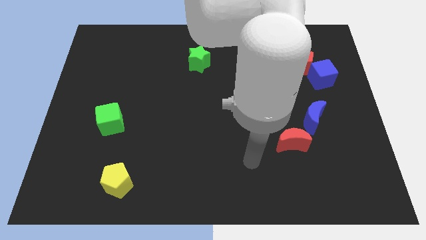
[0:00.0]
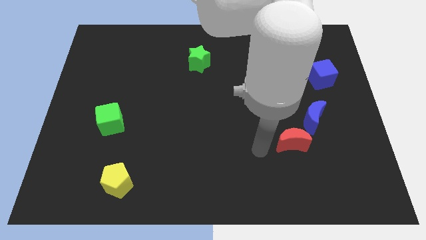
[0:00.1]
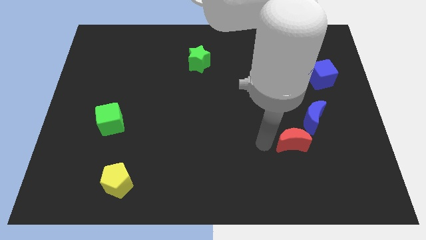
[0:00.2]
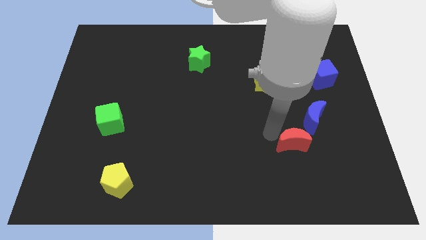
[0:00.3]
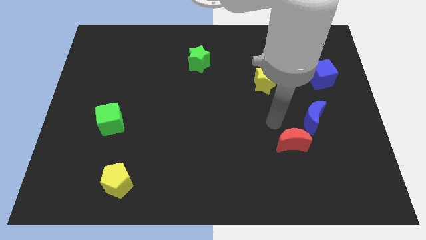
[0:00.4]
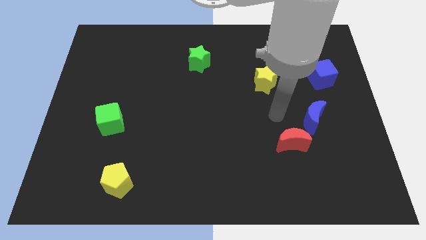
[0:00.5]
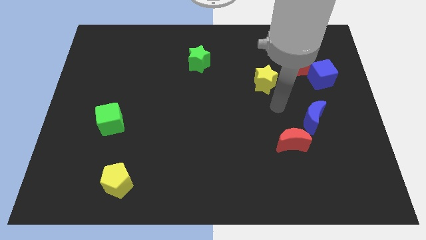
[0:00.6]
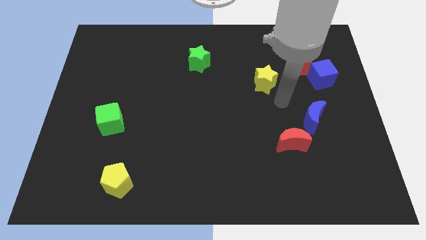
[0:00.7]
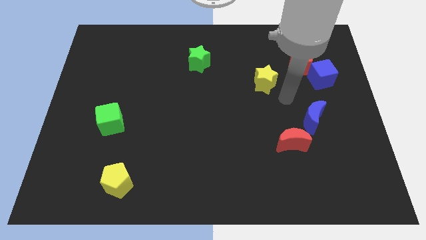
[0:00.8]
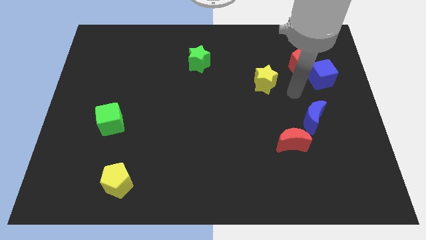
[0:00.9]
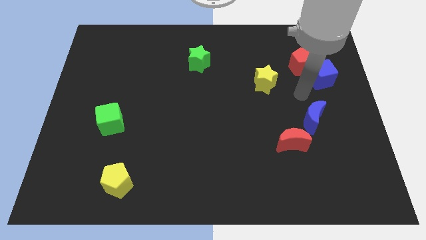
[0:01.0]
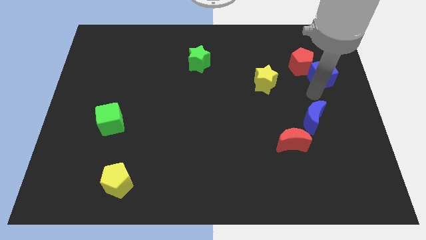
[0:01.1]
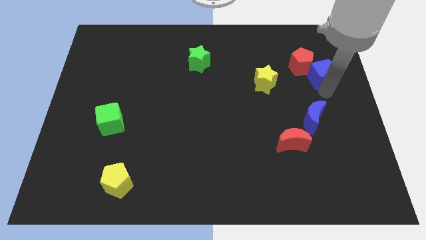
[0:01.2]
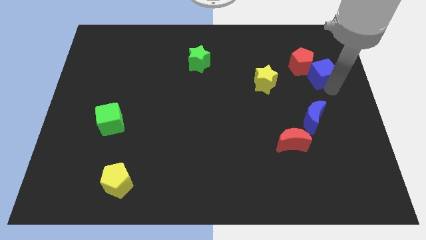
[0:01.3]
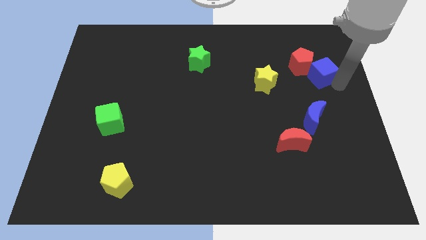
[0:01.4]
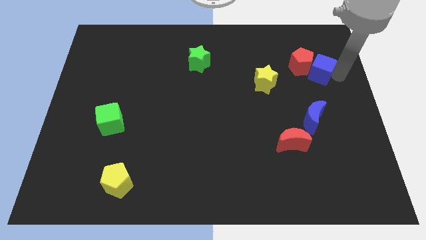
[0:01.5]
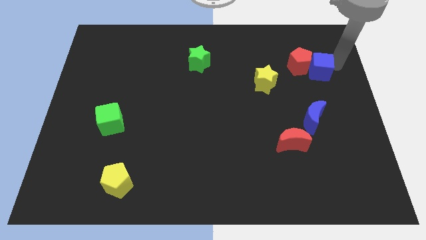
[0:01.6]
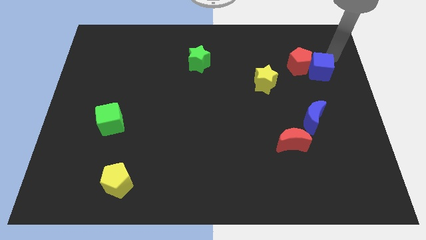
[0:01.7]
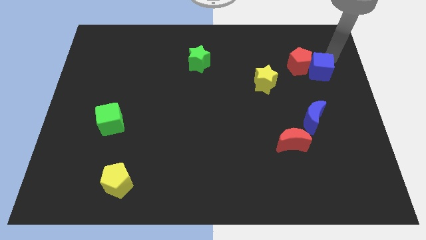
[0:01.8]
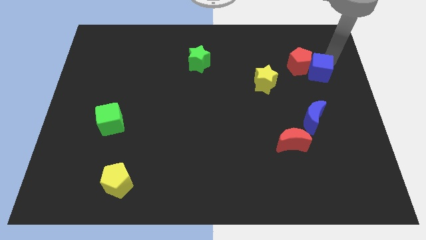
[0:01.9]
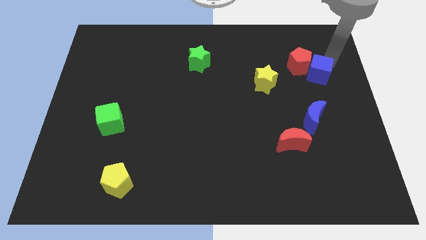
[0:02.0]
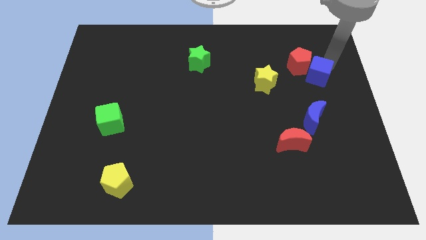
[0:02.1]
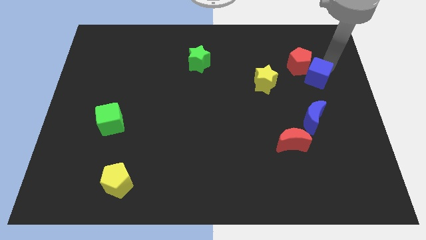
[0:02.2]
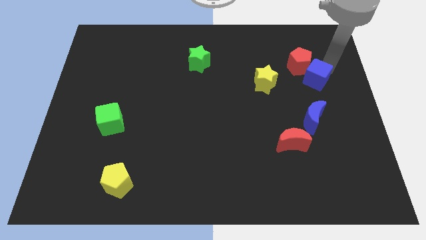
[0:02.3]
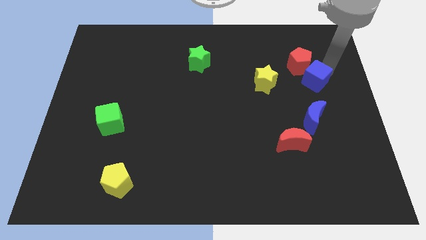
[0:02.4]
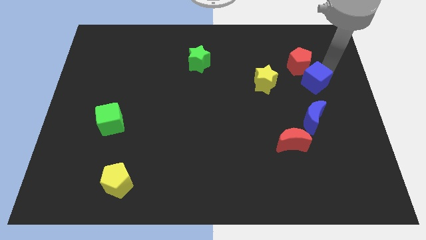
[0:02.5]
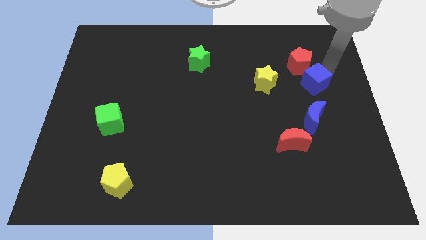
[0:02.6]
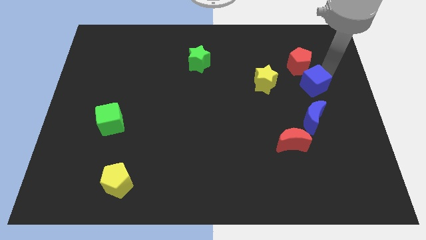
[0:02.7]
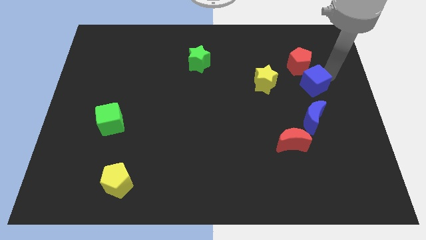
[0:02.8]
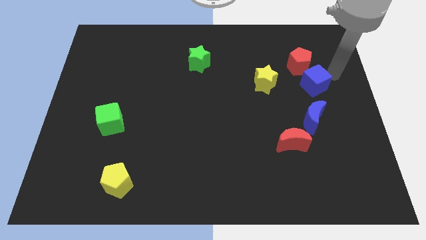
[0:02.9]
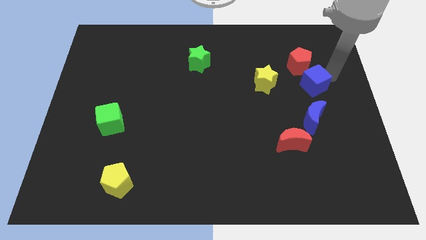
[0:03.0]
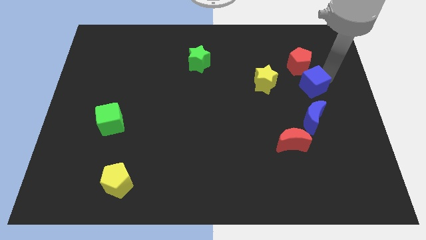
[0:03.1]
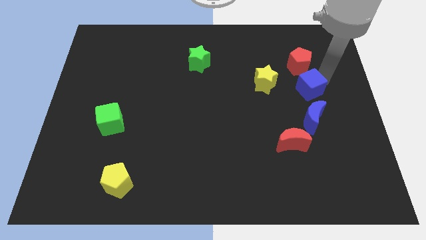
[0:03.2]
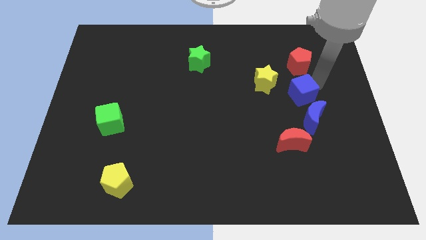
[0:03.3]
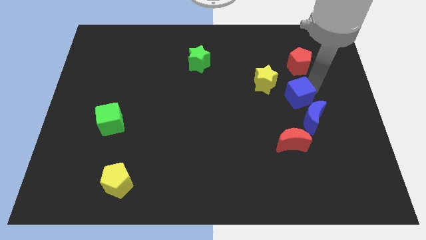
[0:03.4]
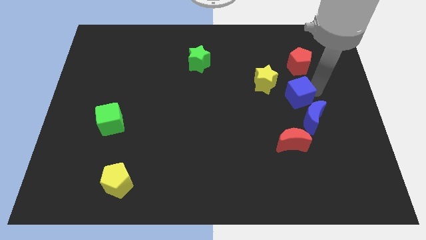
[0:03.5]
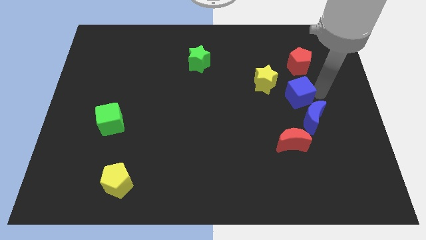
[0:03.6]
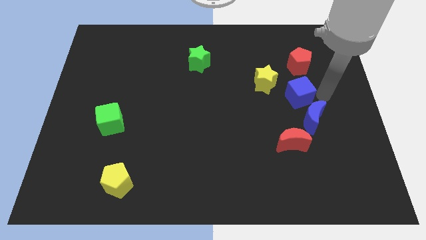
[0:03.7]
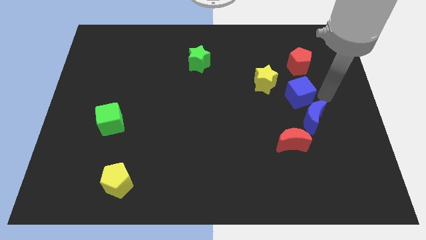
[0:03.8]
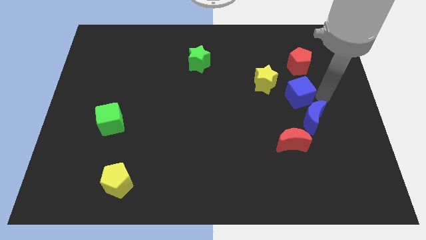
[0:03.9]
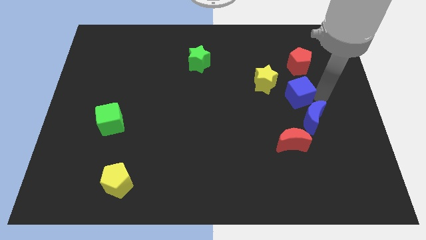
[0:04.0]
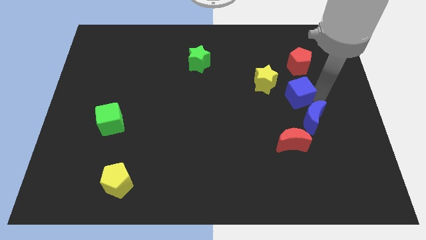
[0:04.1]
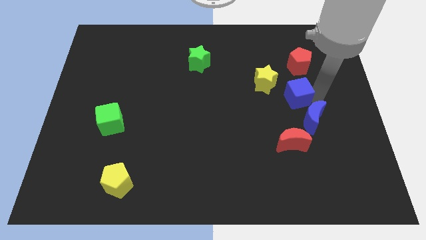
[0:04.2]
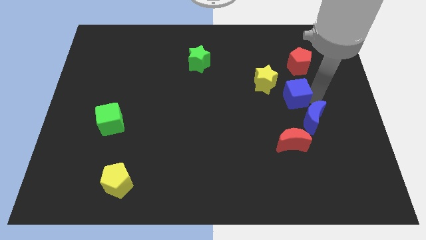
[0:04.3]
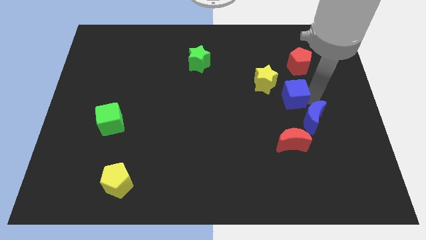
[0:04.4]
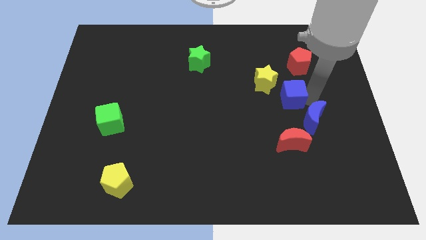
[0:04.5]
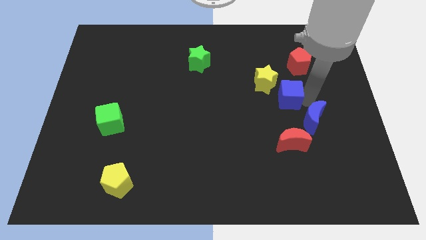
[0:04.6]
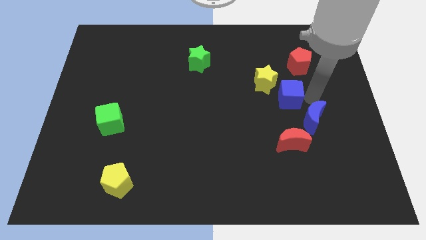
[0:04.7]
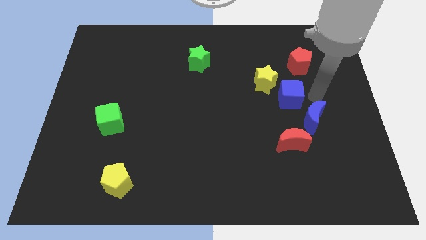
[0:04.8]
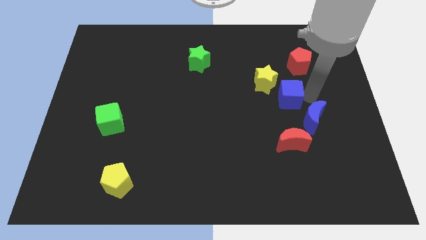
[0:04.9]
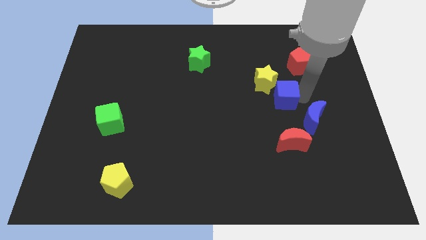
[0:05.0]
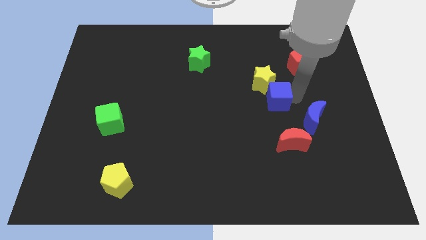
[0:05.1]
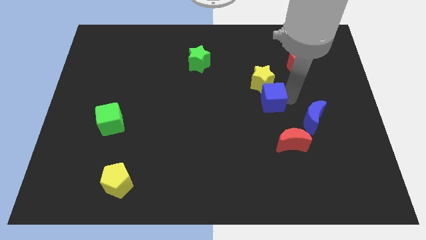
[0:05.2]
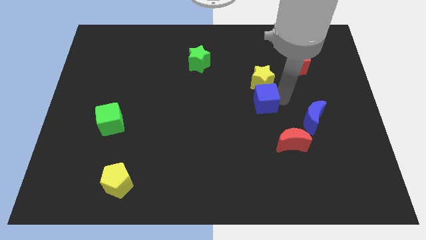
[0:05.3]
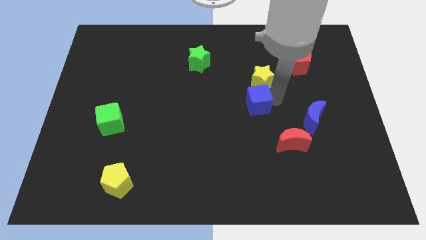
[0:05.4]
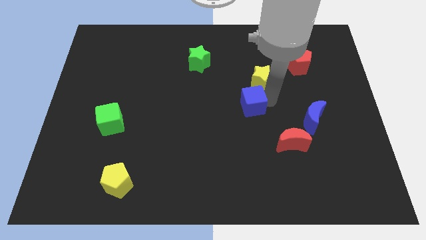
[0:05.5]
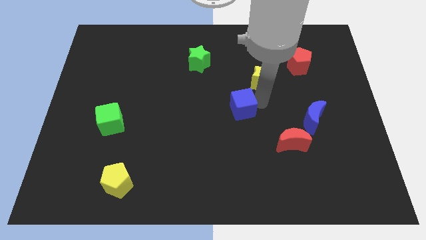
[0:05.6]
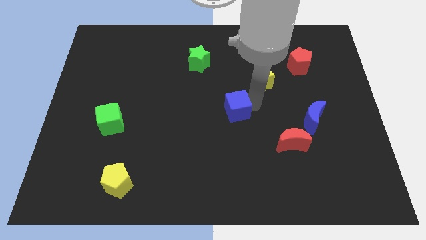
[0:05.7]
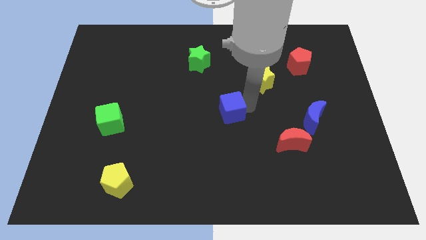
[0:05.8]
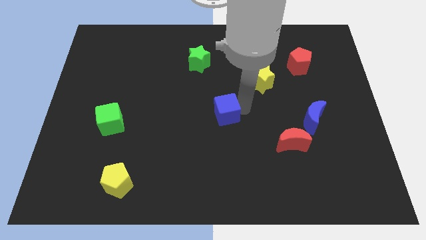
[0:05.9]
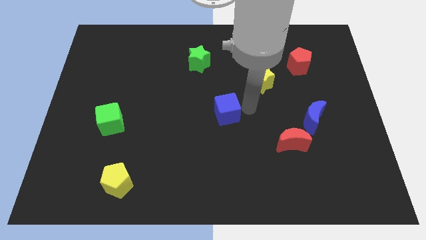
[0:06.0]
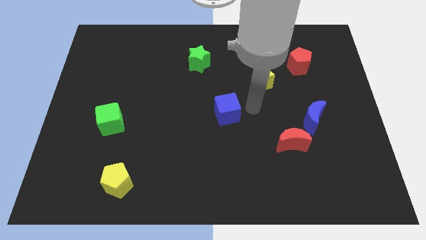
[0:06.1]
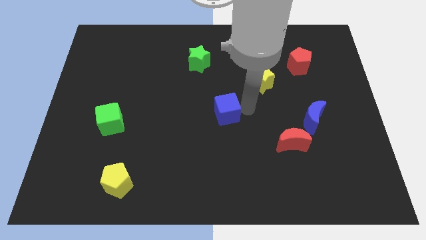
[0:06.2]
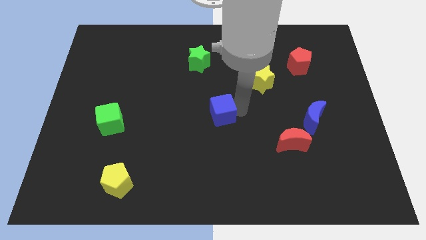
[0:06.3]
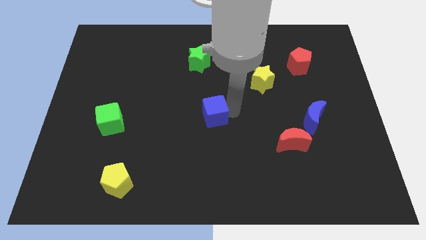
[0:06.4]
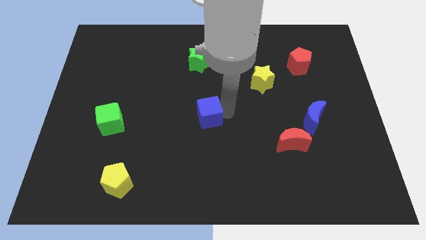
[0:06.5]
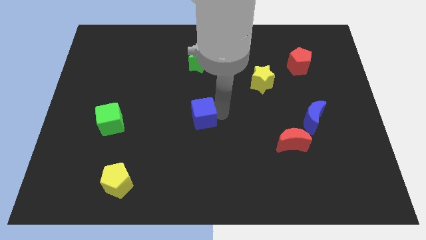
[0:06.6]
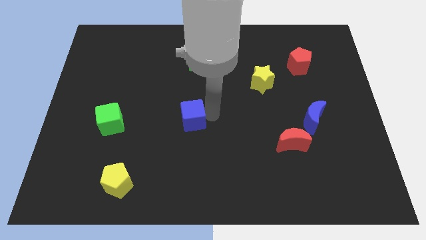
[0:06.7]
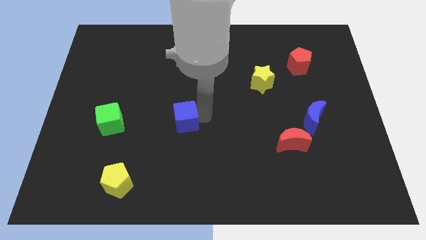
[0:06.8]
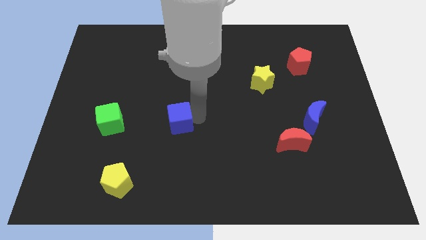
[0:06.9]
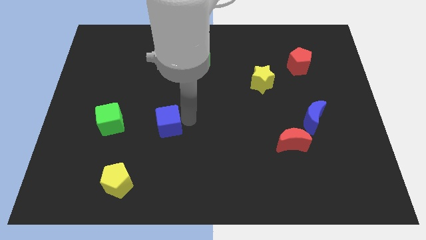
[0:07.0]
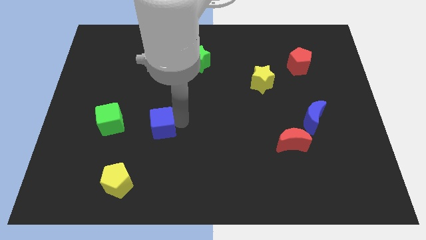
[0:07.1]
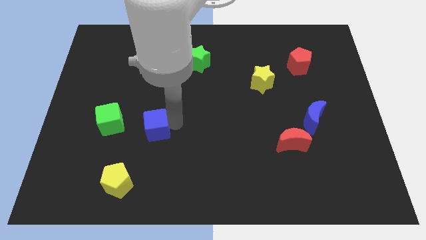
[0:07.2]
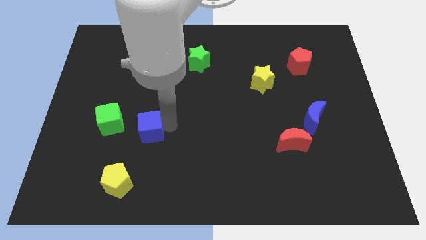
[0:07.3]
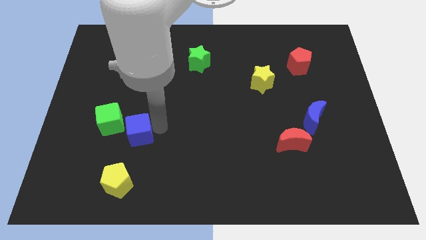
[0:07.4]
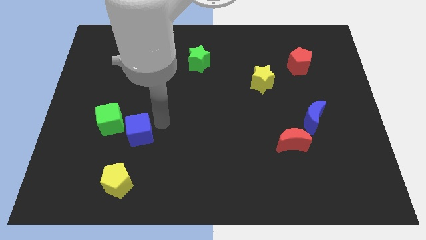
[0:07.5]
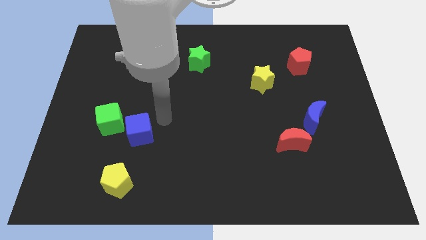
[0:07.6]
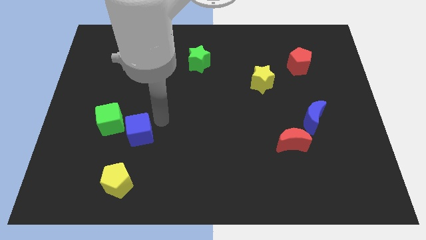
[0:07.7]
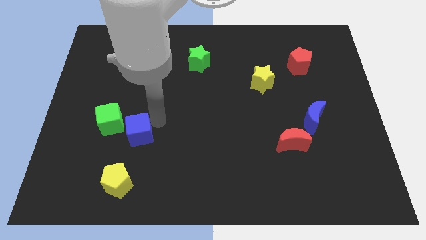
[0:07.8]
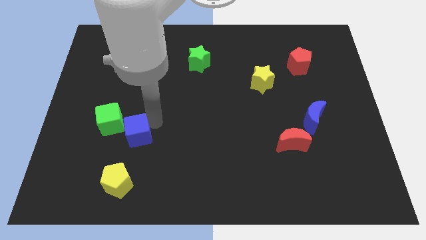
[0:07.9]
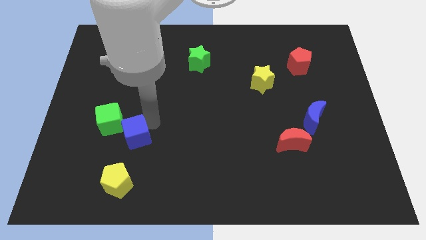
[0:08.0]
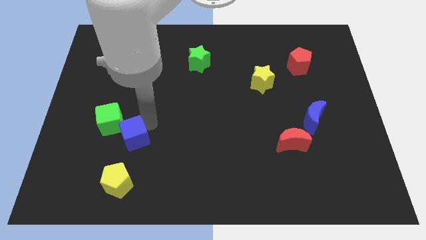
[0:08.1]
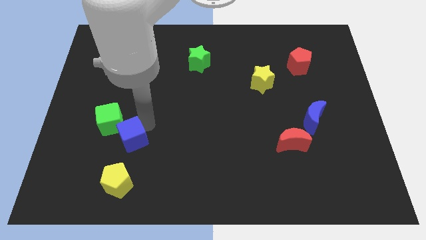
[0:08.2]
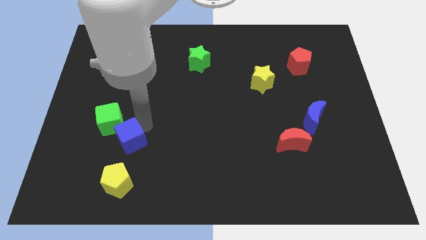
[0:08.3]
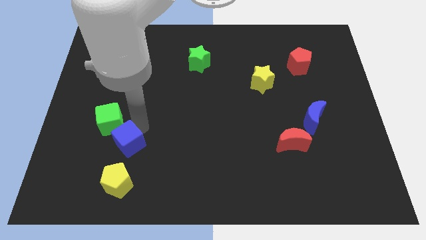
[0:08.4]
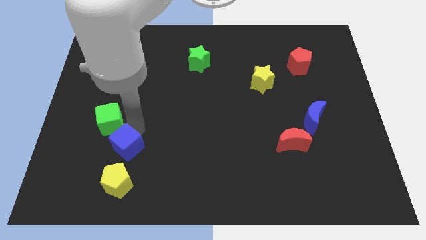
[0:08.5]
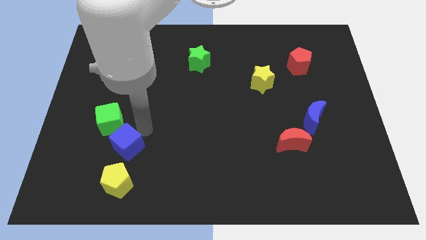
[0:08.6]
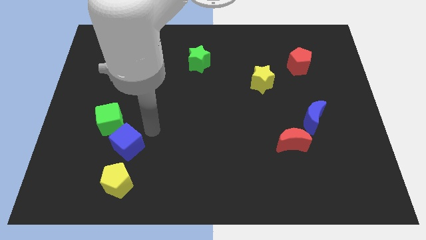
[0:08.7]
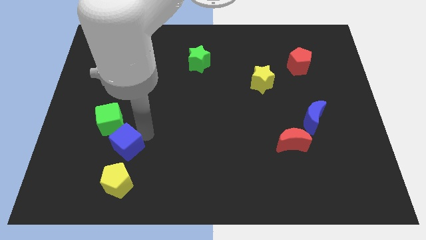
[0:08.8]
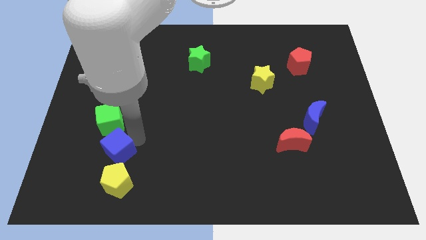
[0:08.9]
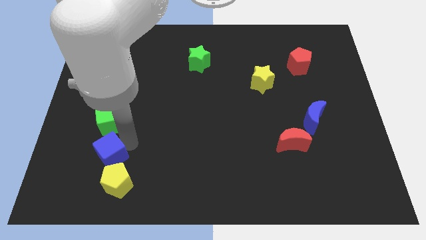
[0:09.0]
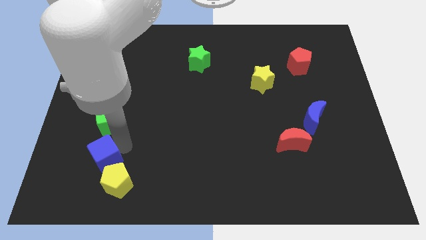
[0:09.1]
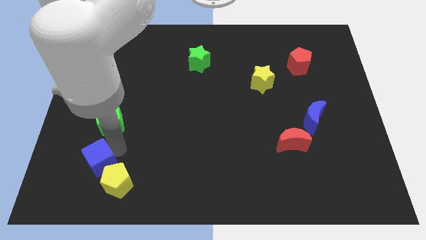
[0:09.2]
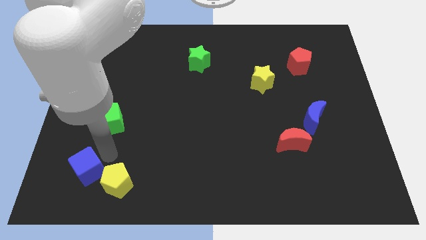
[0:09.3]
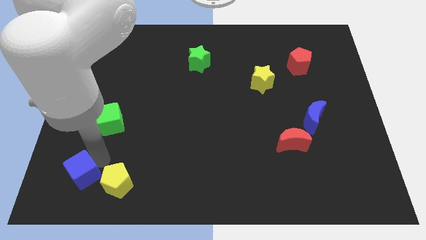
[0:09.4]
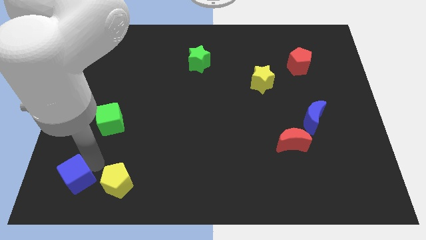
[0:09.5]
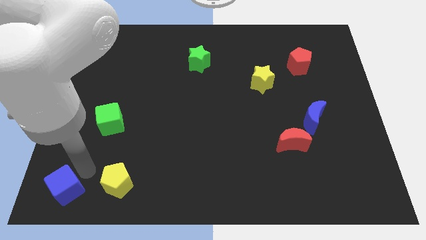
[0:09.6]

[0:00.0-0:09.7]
put the blue cube to the lower left corner
